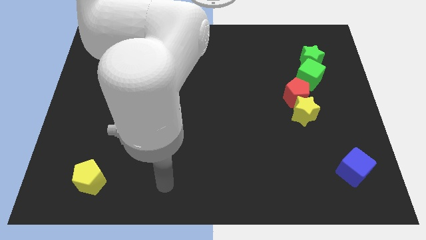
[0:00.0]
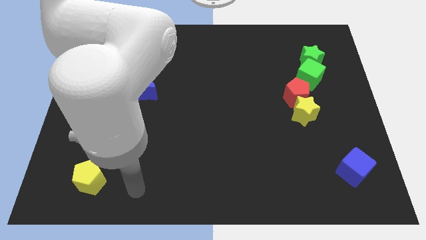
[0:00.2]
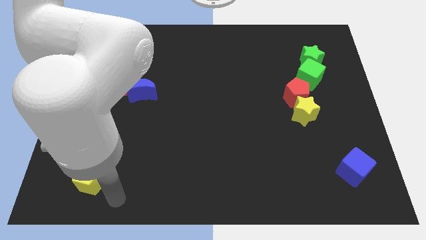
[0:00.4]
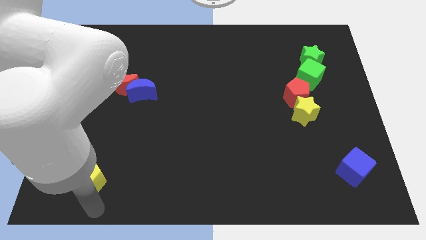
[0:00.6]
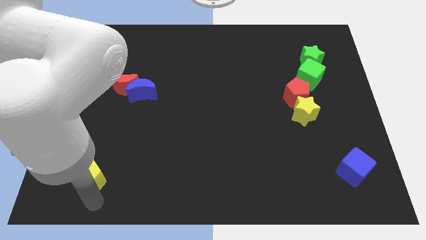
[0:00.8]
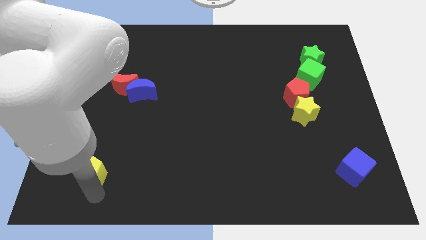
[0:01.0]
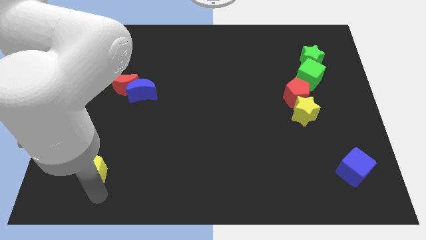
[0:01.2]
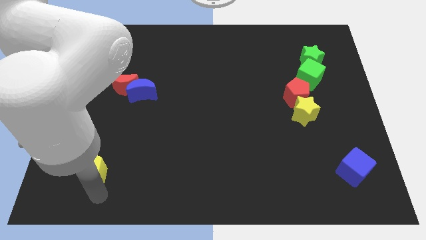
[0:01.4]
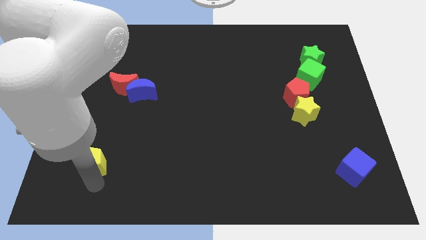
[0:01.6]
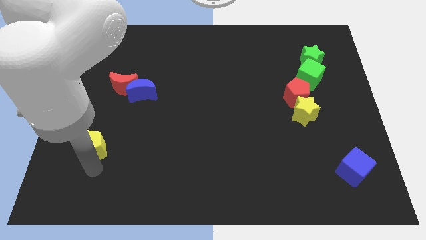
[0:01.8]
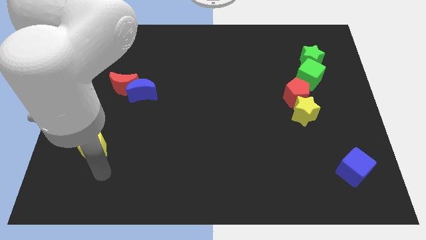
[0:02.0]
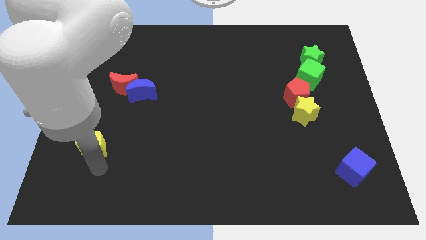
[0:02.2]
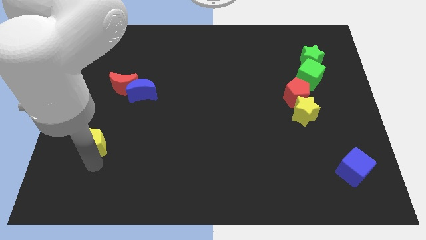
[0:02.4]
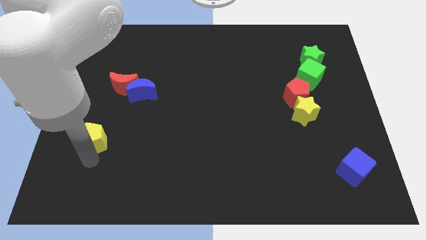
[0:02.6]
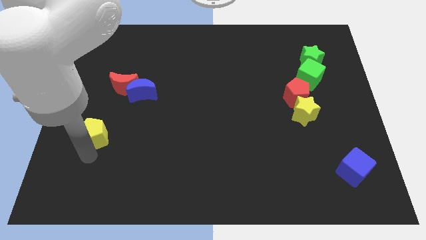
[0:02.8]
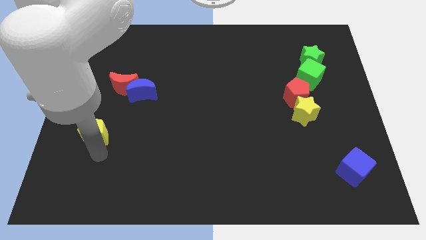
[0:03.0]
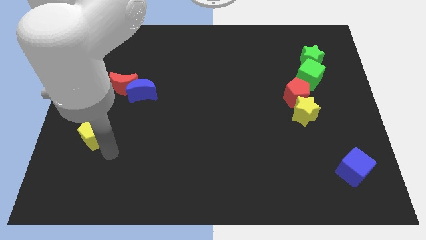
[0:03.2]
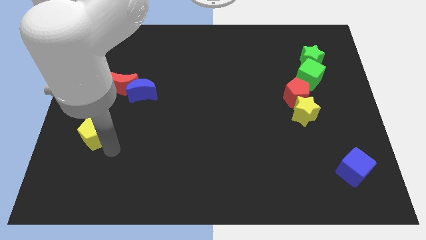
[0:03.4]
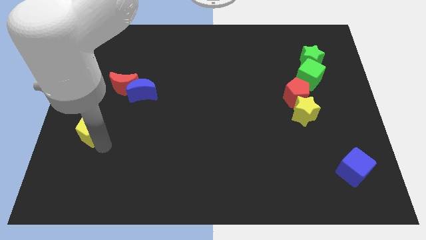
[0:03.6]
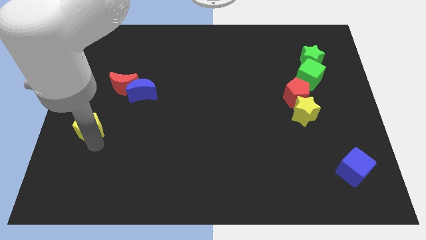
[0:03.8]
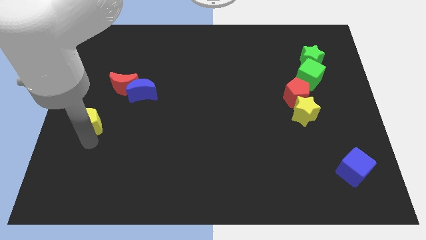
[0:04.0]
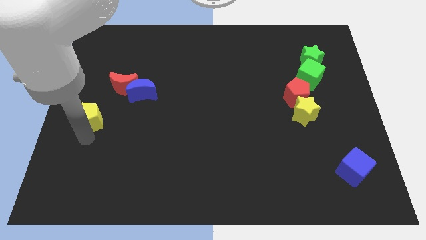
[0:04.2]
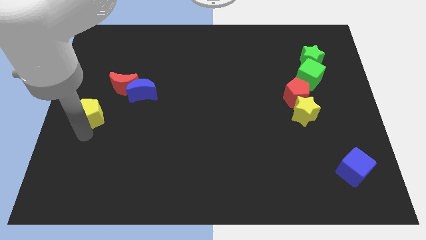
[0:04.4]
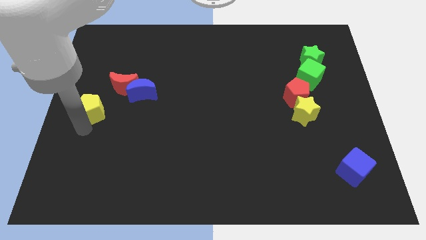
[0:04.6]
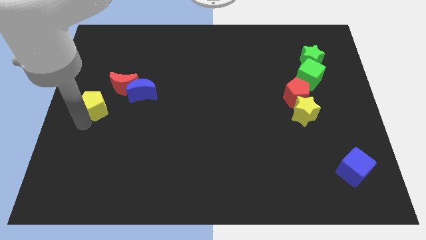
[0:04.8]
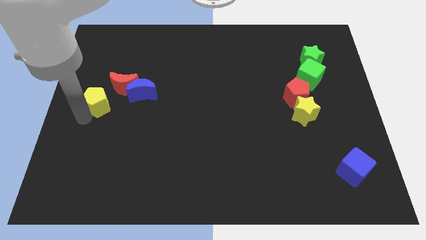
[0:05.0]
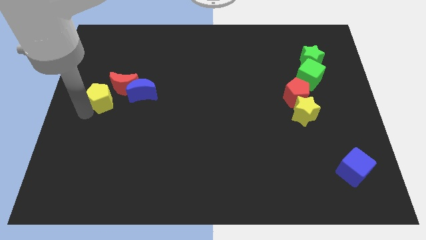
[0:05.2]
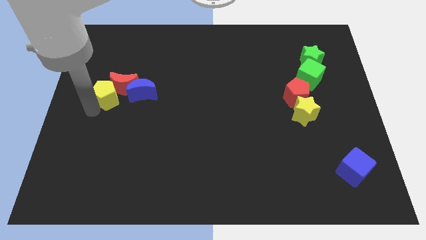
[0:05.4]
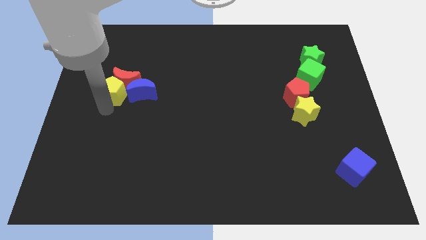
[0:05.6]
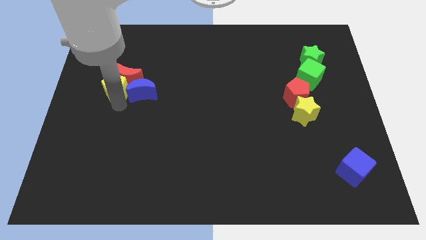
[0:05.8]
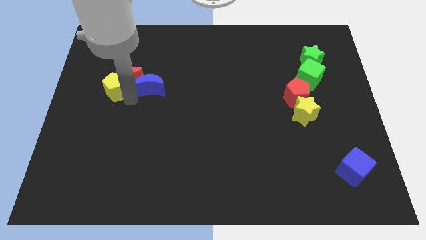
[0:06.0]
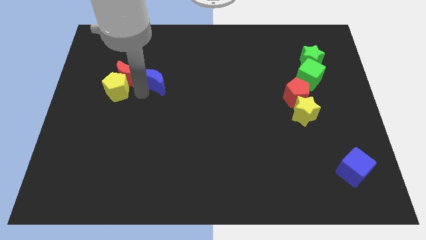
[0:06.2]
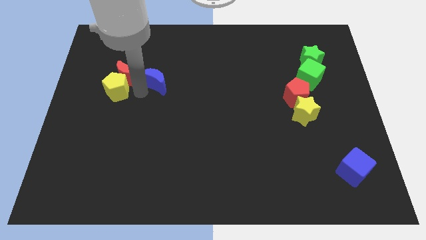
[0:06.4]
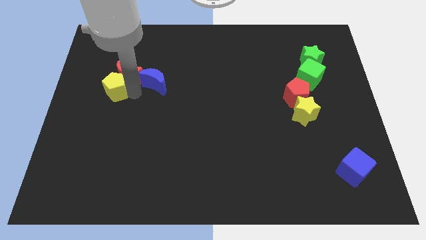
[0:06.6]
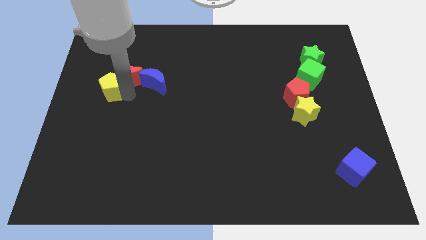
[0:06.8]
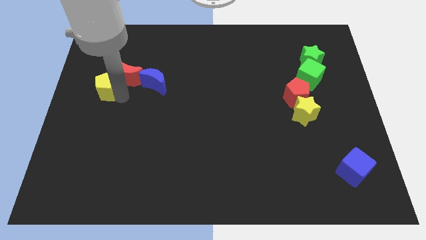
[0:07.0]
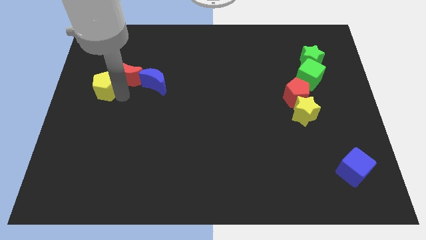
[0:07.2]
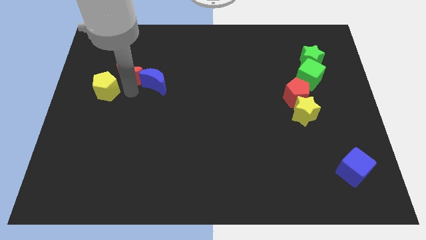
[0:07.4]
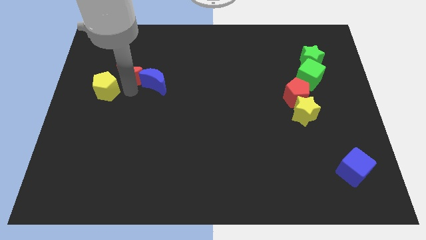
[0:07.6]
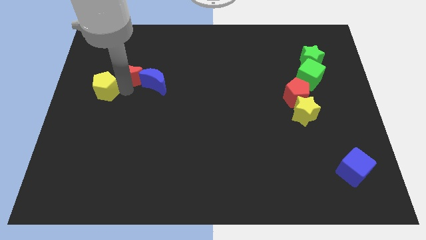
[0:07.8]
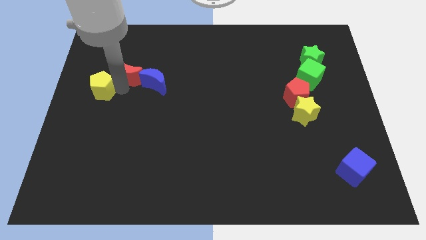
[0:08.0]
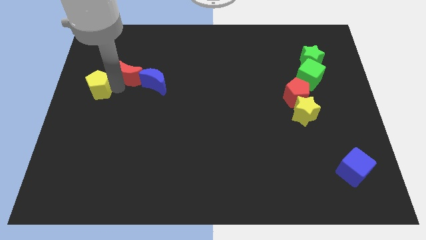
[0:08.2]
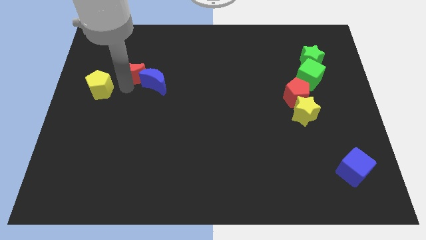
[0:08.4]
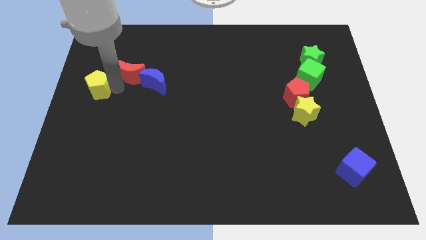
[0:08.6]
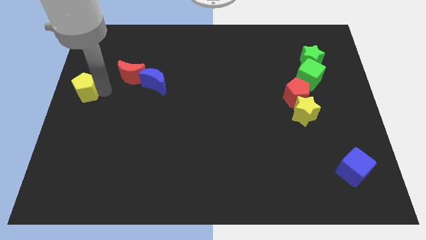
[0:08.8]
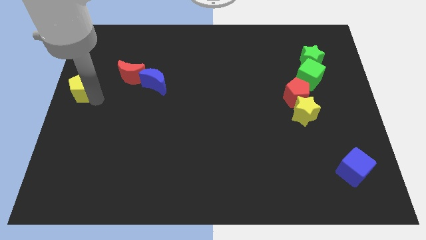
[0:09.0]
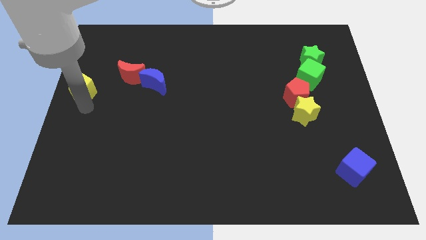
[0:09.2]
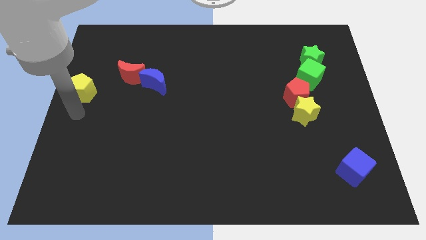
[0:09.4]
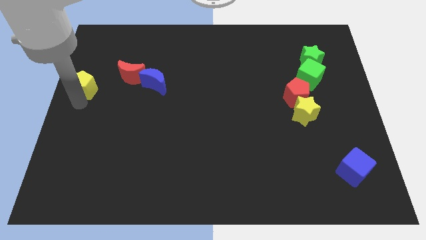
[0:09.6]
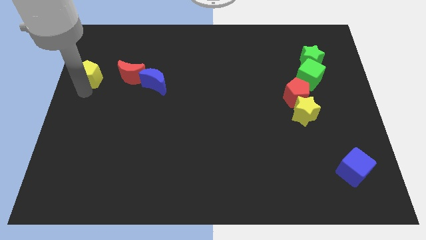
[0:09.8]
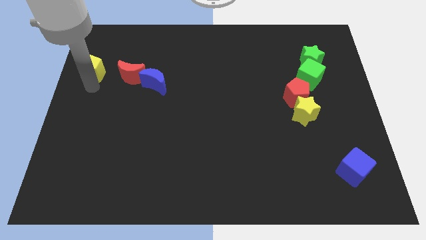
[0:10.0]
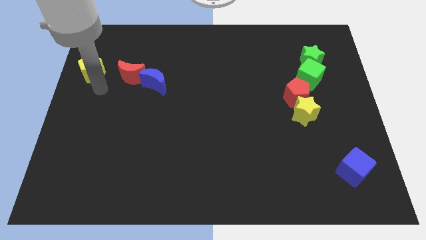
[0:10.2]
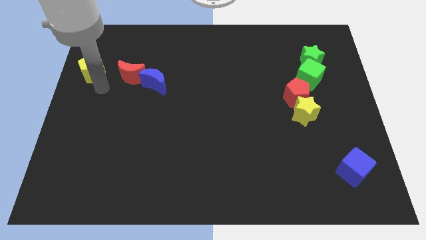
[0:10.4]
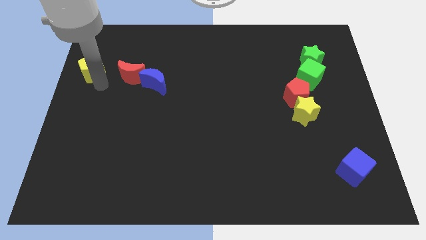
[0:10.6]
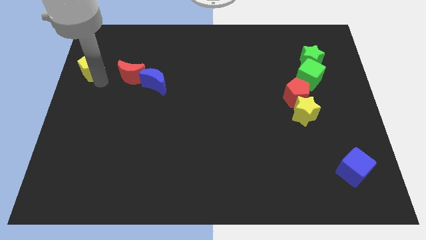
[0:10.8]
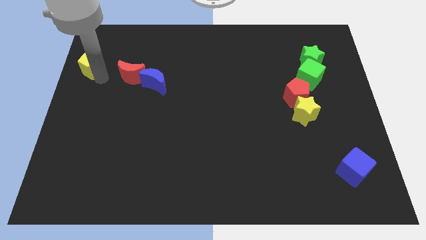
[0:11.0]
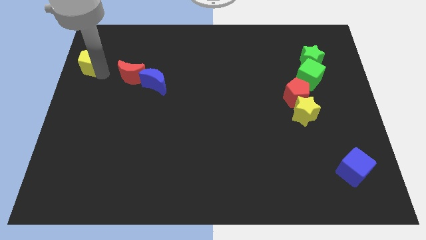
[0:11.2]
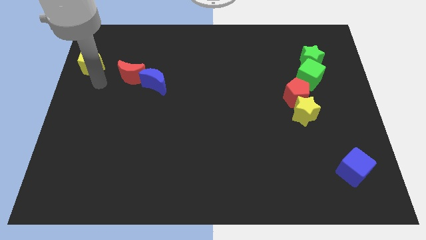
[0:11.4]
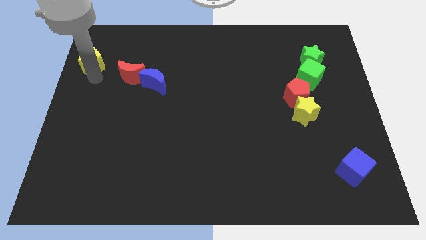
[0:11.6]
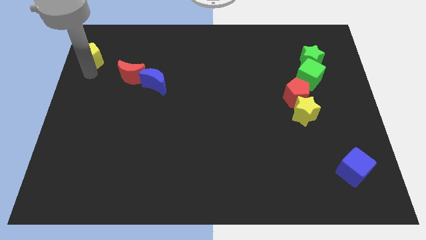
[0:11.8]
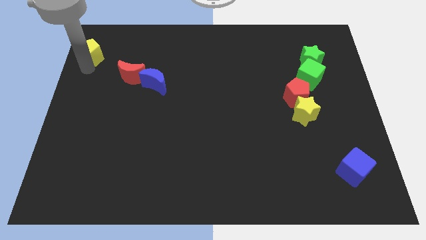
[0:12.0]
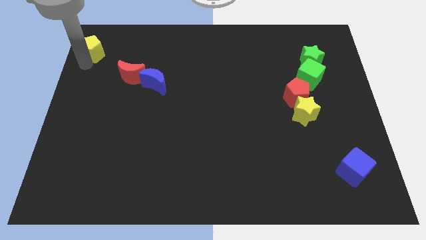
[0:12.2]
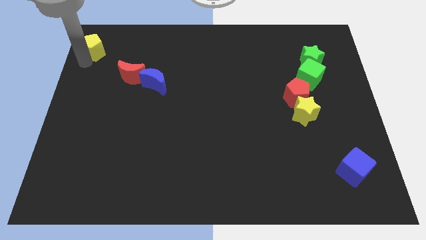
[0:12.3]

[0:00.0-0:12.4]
push the yellow pentagon to the upper left corner

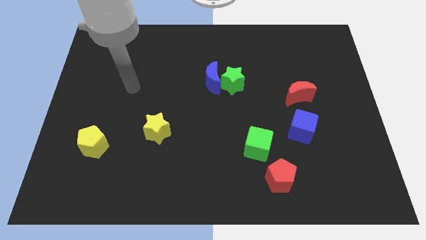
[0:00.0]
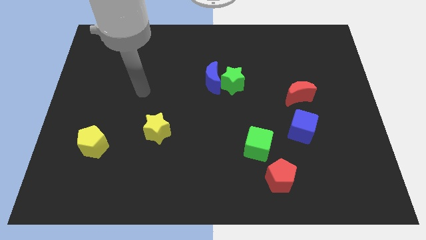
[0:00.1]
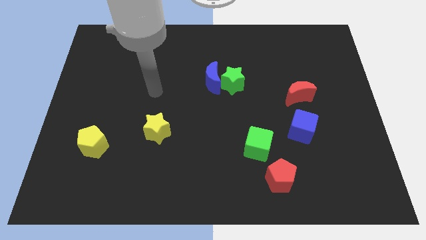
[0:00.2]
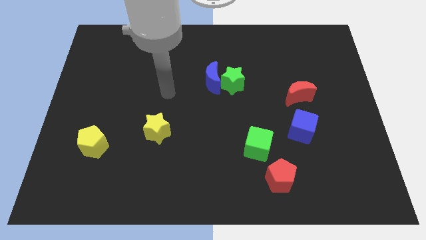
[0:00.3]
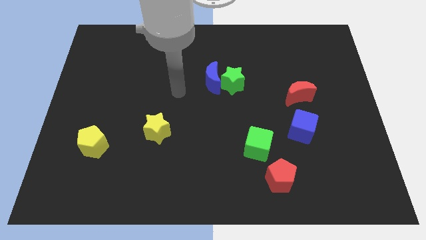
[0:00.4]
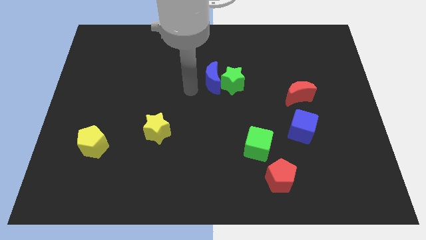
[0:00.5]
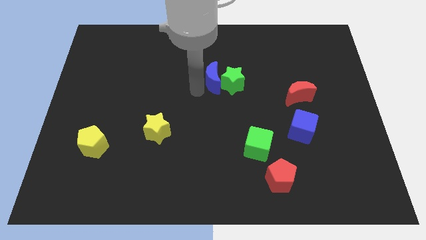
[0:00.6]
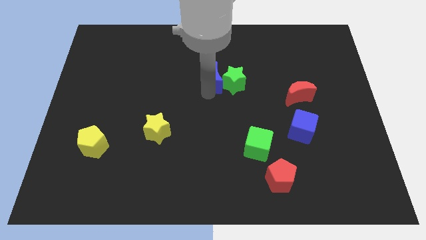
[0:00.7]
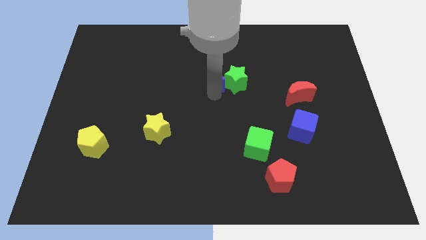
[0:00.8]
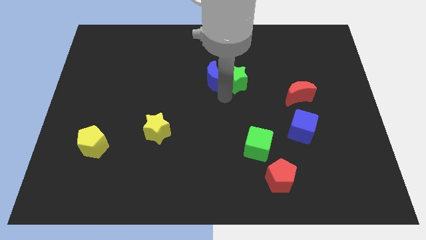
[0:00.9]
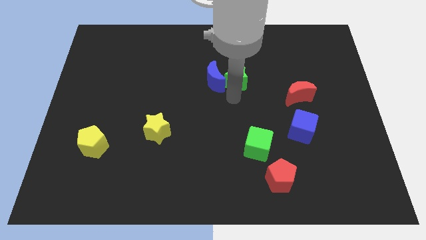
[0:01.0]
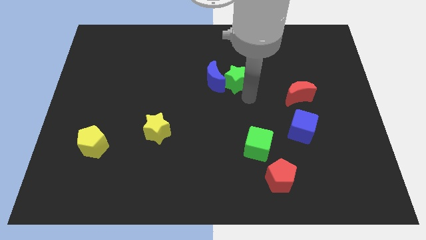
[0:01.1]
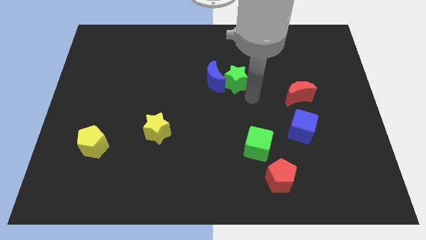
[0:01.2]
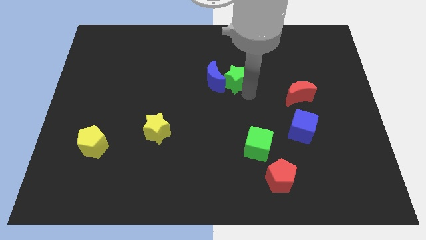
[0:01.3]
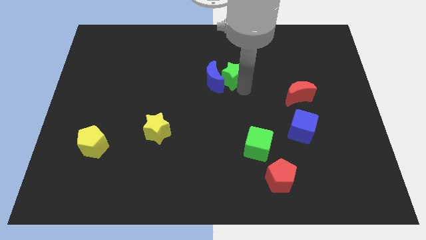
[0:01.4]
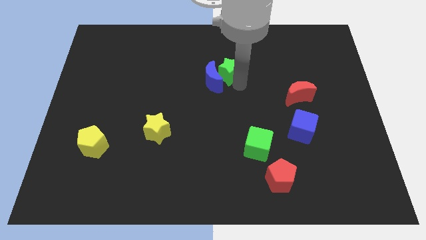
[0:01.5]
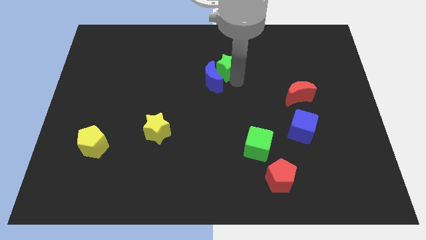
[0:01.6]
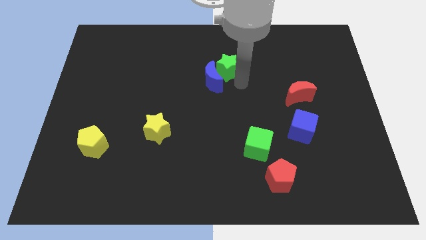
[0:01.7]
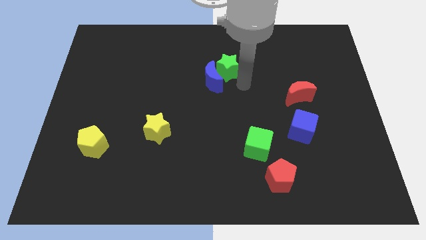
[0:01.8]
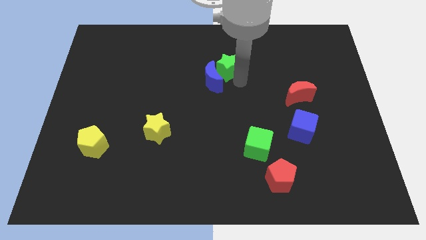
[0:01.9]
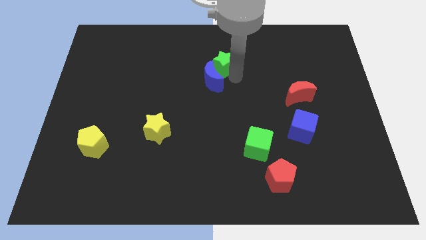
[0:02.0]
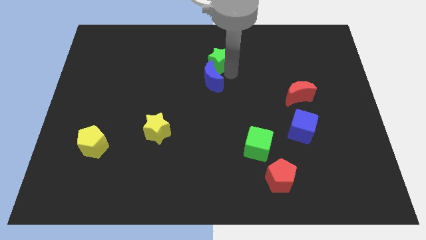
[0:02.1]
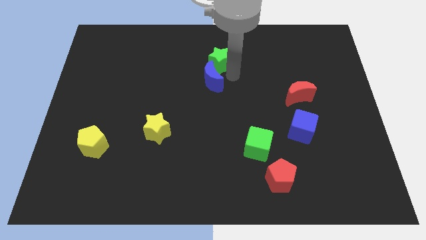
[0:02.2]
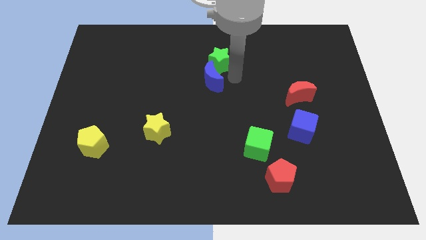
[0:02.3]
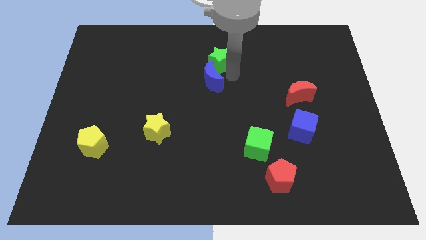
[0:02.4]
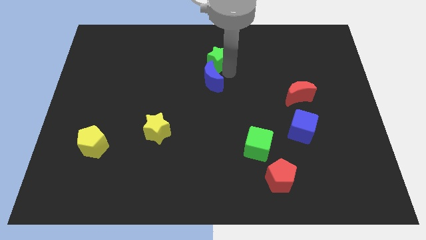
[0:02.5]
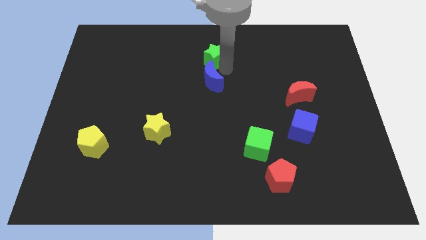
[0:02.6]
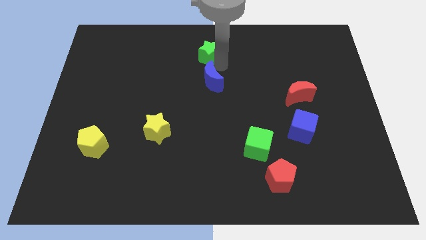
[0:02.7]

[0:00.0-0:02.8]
push the green star to the towards your base
